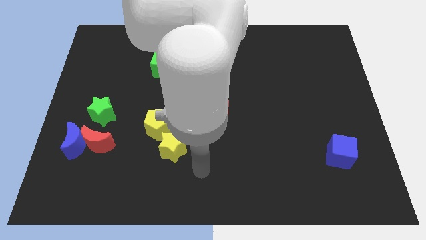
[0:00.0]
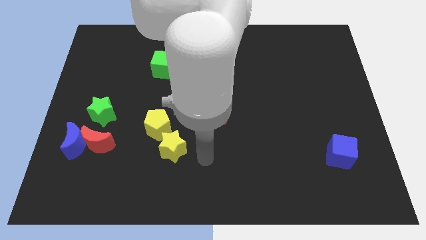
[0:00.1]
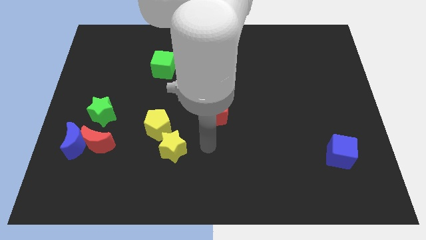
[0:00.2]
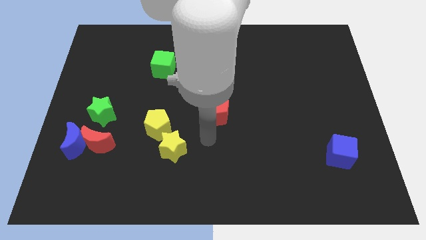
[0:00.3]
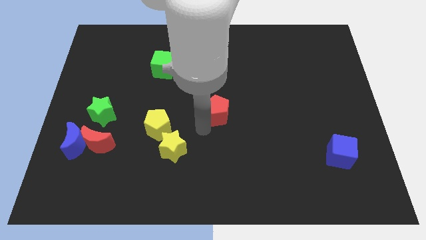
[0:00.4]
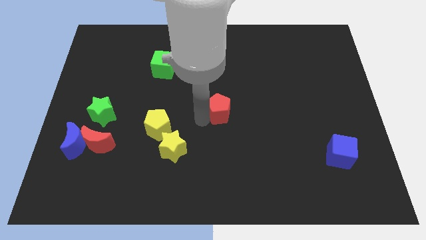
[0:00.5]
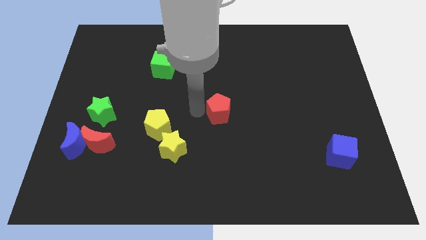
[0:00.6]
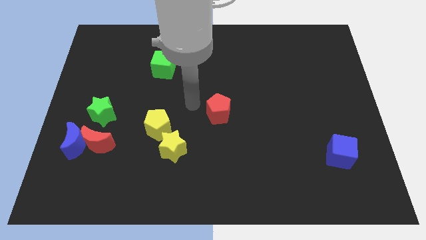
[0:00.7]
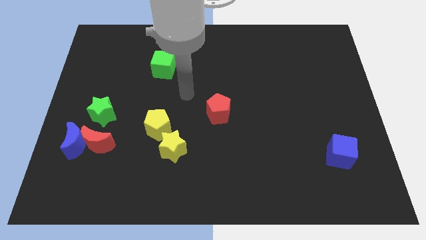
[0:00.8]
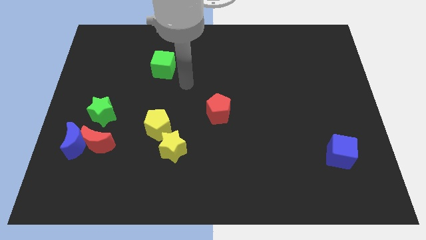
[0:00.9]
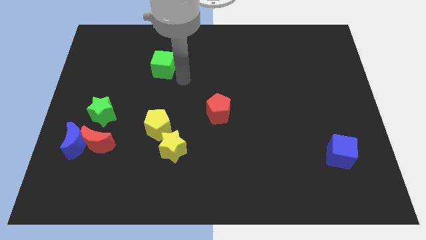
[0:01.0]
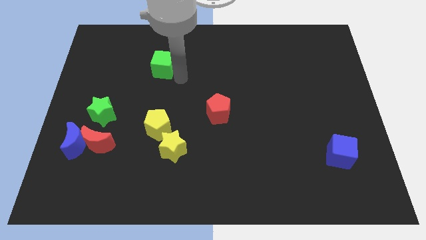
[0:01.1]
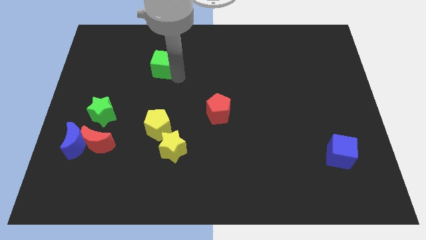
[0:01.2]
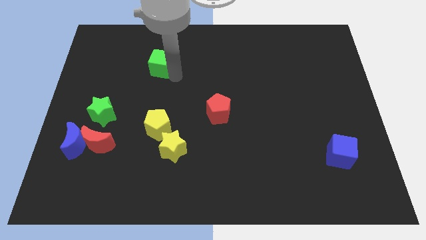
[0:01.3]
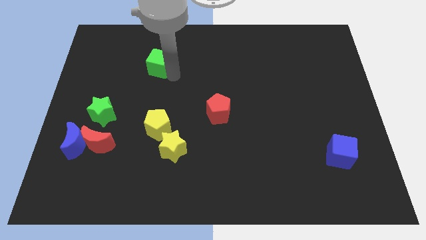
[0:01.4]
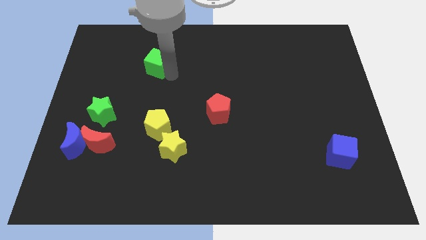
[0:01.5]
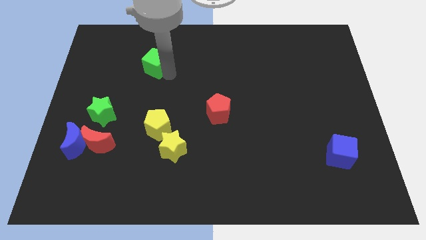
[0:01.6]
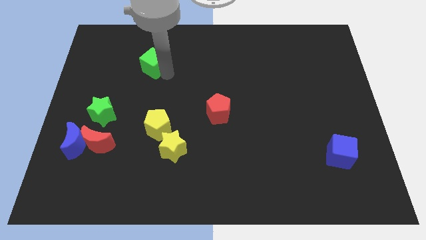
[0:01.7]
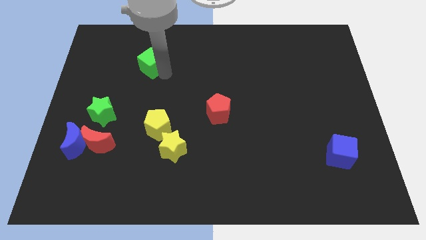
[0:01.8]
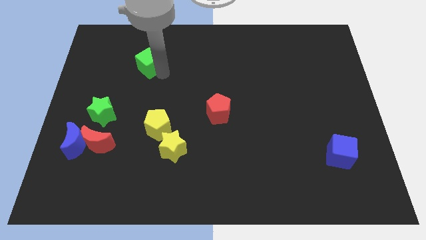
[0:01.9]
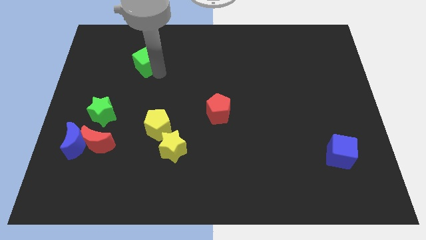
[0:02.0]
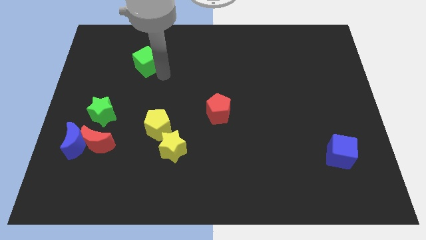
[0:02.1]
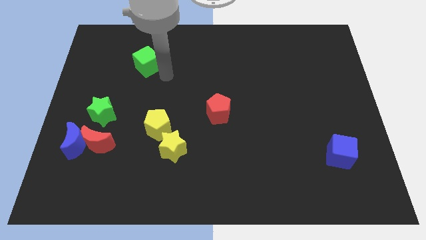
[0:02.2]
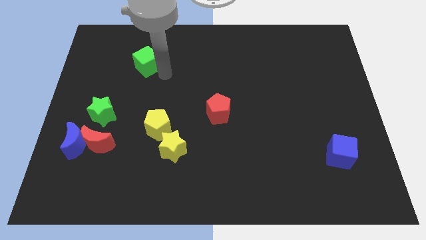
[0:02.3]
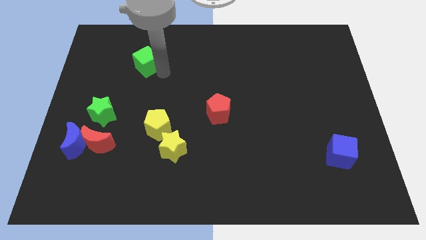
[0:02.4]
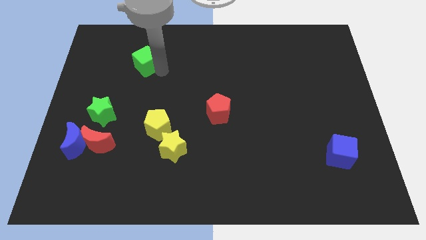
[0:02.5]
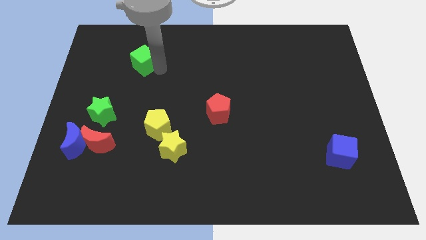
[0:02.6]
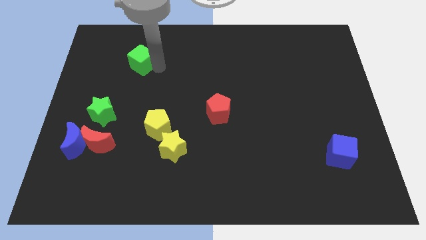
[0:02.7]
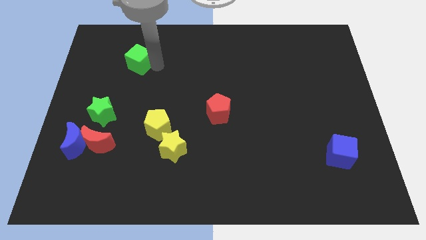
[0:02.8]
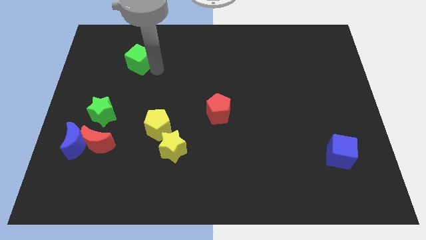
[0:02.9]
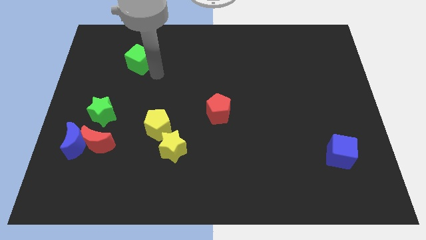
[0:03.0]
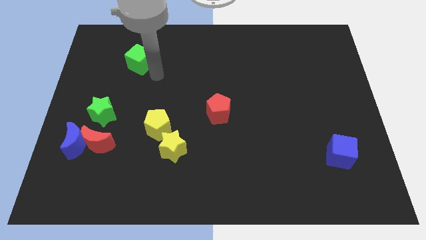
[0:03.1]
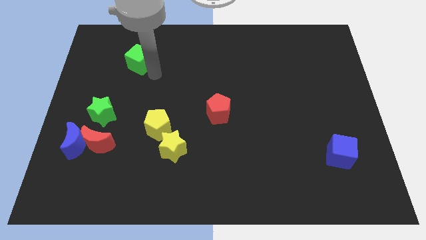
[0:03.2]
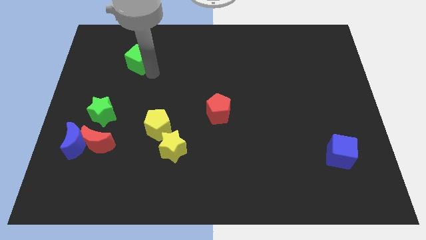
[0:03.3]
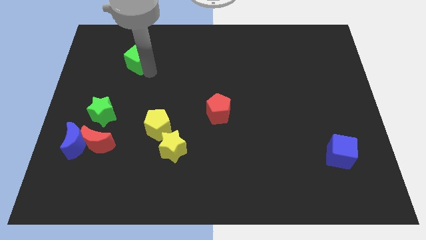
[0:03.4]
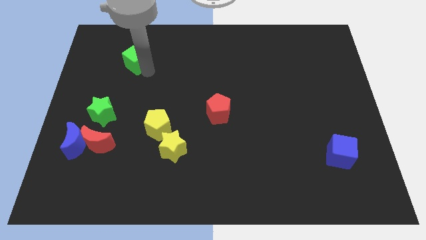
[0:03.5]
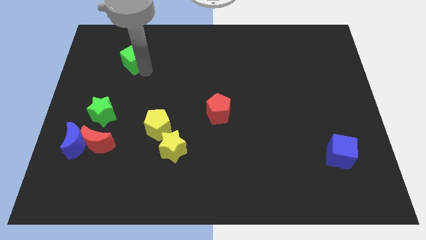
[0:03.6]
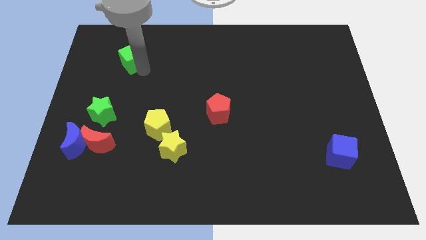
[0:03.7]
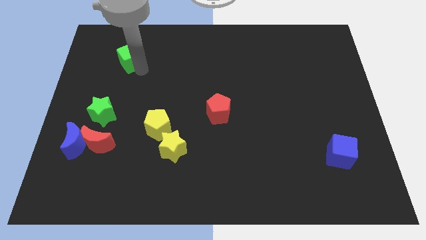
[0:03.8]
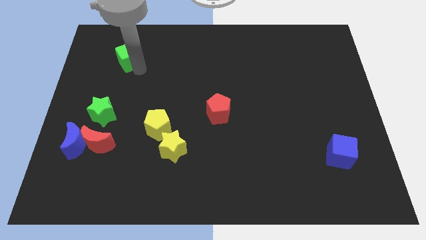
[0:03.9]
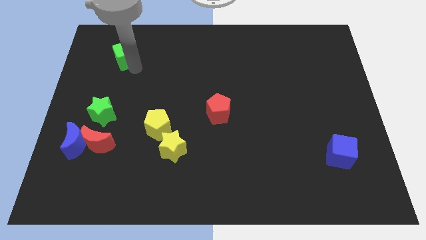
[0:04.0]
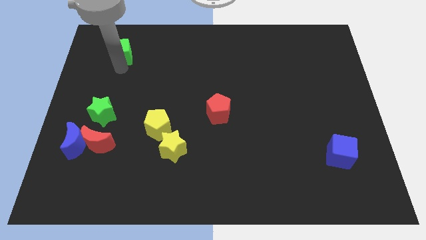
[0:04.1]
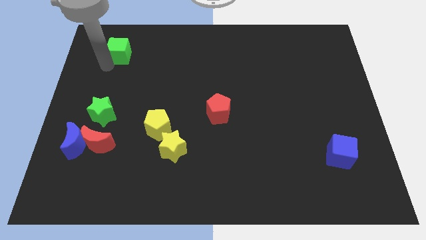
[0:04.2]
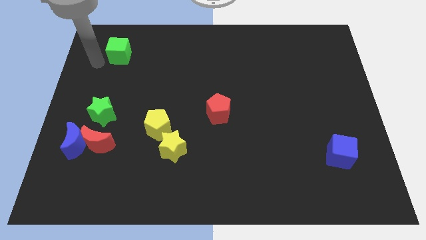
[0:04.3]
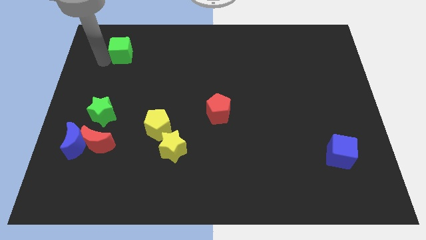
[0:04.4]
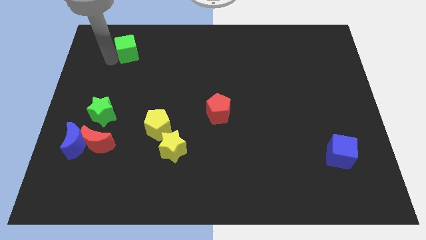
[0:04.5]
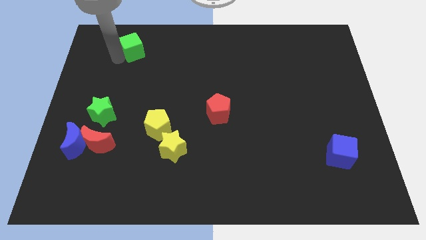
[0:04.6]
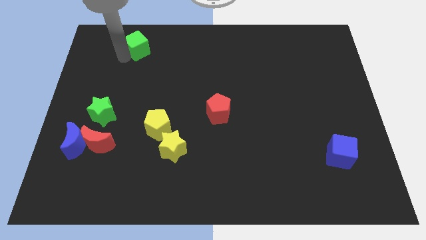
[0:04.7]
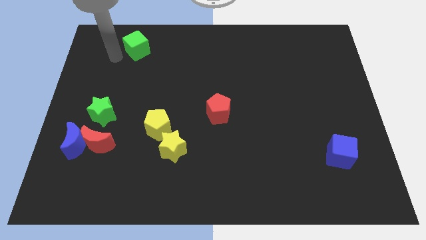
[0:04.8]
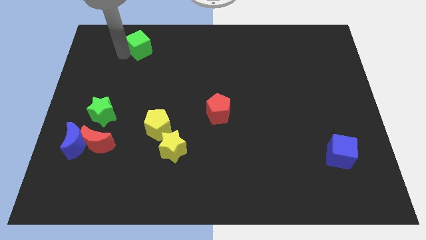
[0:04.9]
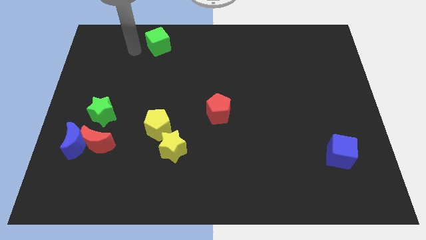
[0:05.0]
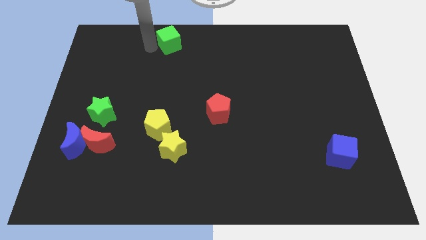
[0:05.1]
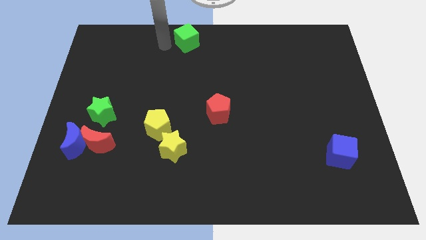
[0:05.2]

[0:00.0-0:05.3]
slide the green cube to the top

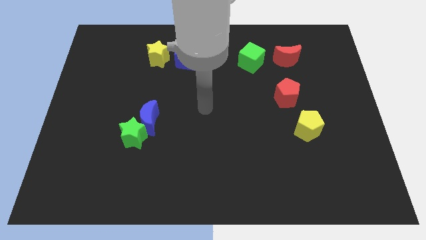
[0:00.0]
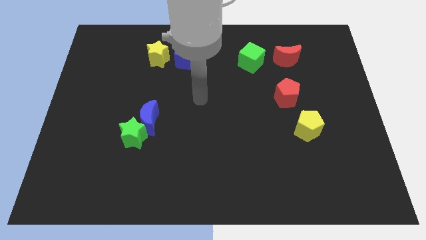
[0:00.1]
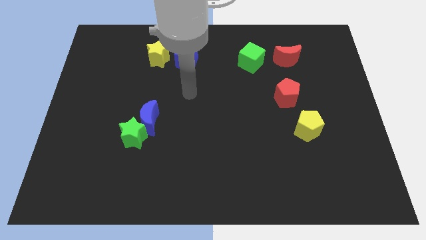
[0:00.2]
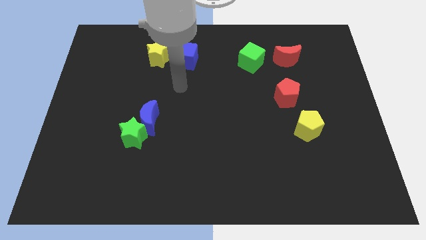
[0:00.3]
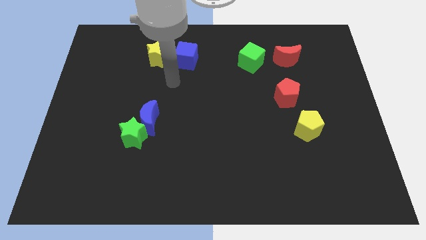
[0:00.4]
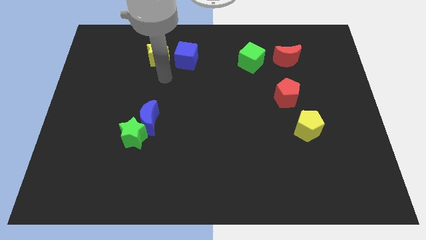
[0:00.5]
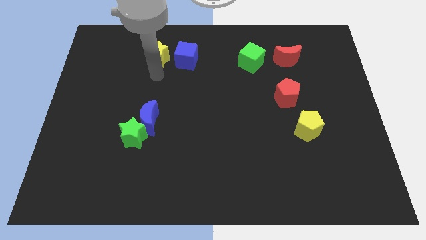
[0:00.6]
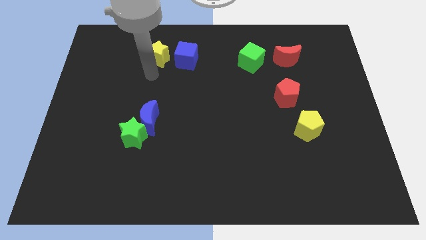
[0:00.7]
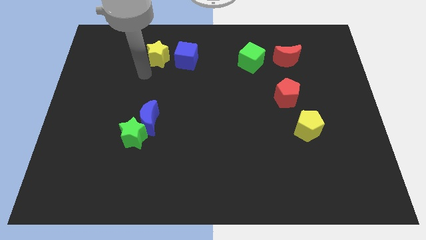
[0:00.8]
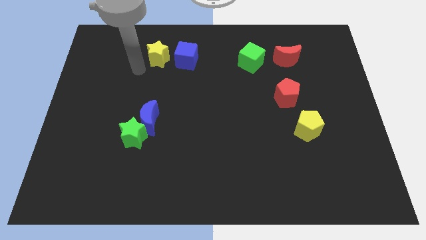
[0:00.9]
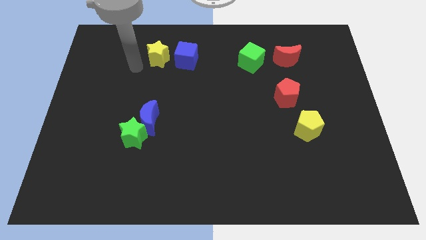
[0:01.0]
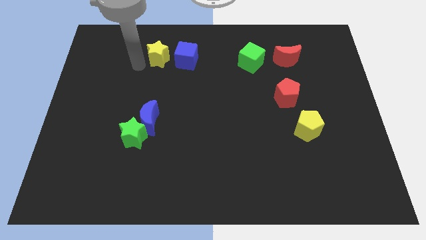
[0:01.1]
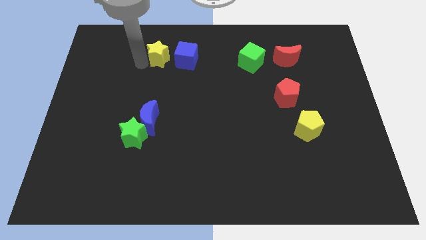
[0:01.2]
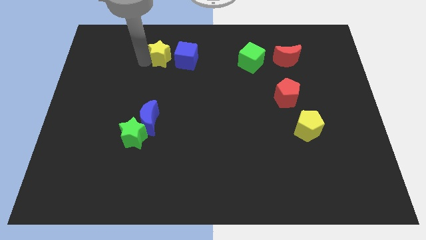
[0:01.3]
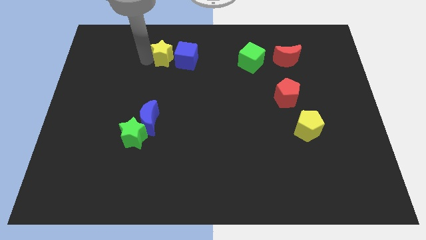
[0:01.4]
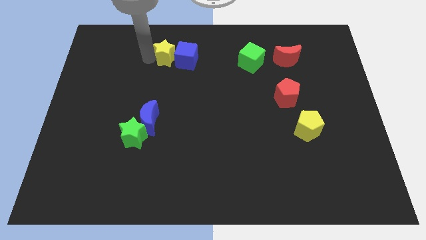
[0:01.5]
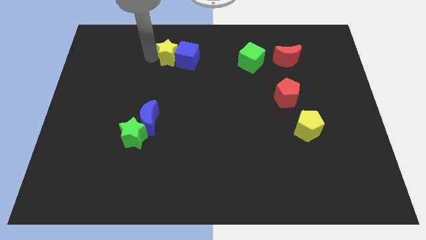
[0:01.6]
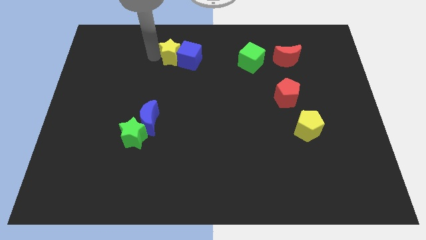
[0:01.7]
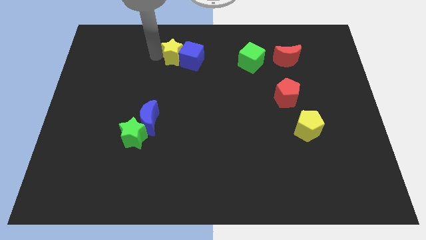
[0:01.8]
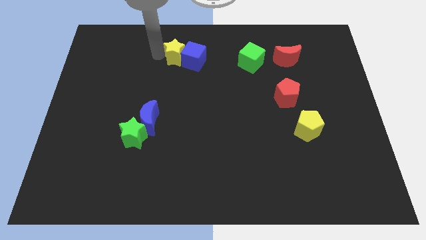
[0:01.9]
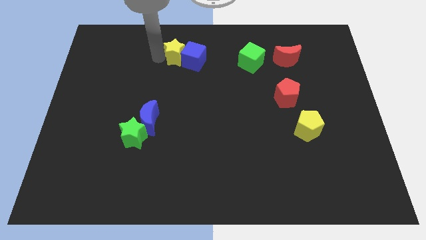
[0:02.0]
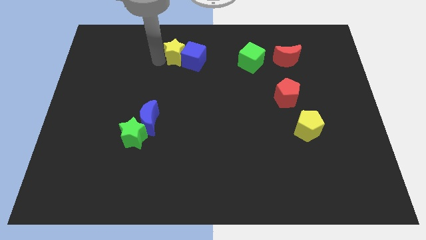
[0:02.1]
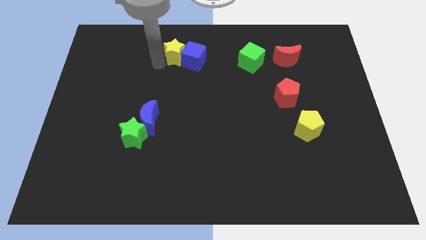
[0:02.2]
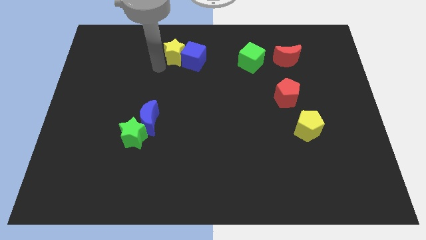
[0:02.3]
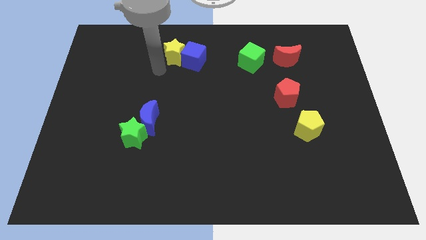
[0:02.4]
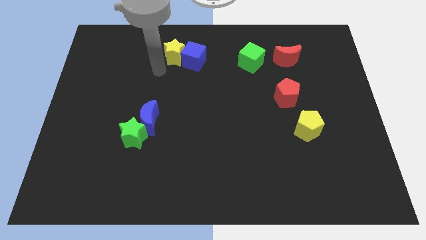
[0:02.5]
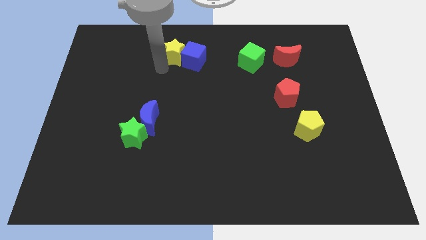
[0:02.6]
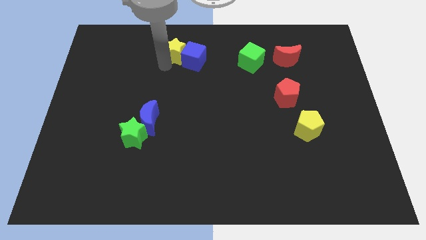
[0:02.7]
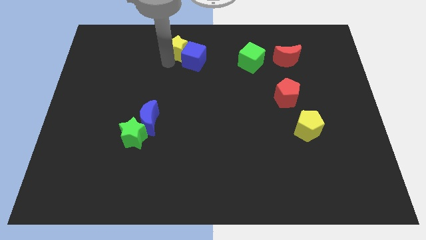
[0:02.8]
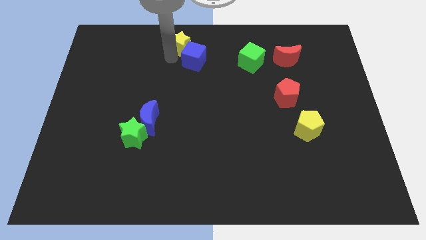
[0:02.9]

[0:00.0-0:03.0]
slide the yellow star to the top
